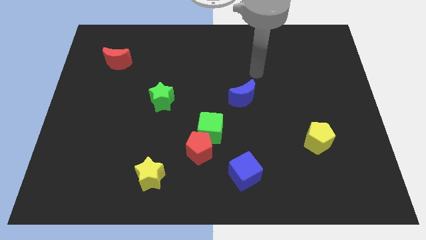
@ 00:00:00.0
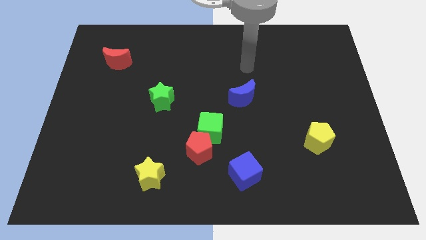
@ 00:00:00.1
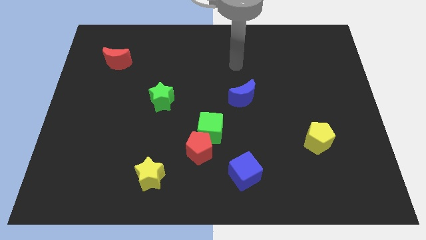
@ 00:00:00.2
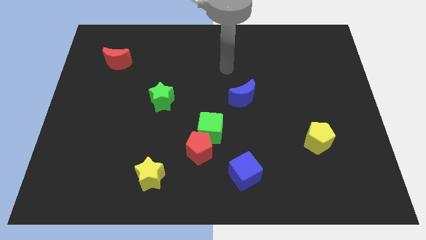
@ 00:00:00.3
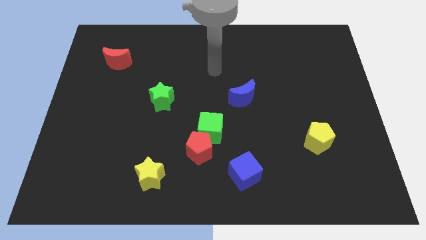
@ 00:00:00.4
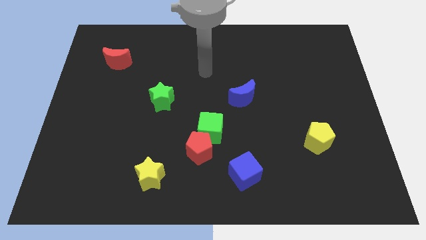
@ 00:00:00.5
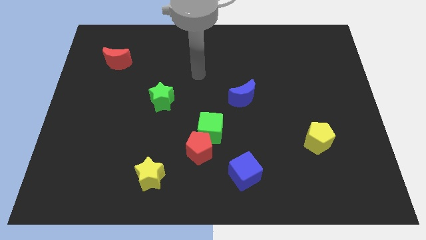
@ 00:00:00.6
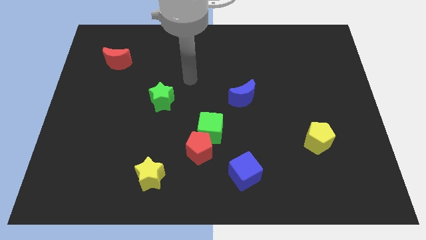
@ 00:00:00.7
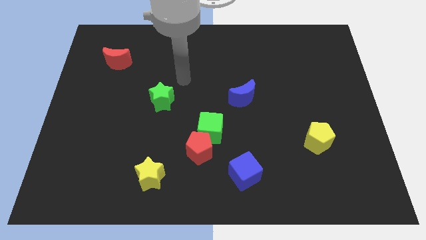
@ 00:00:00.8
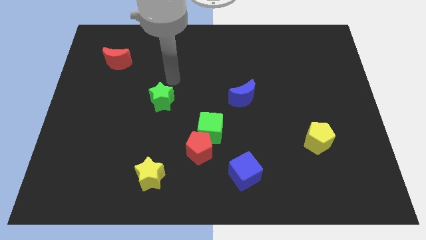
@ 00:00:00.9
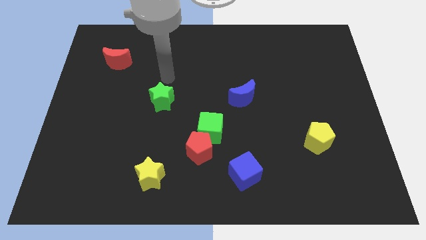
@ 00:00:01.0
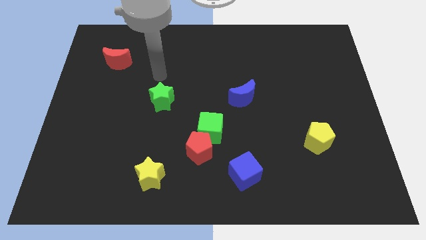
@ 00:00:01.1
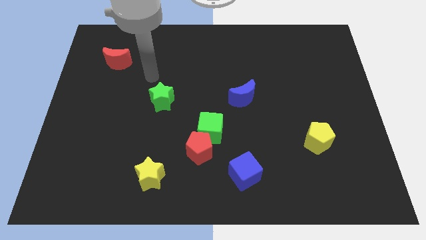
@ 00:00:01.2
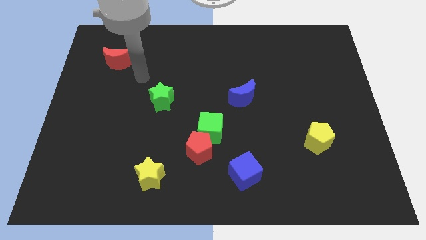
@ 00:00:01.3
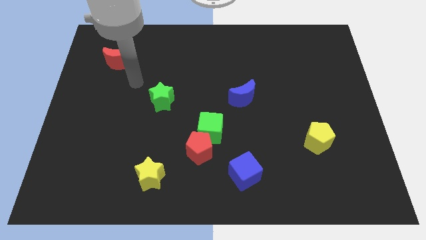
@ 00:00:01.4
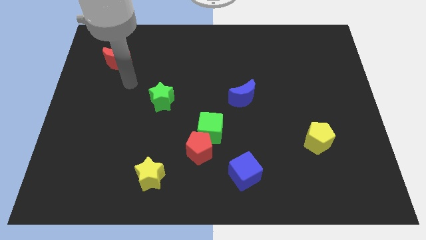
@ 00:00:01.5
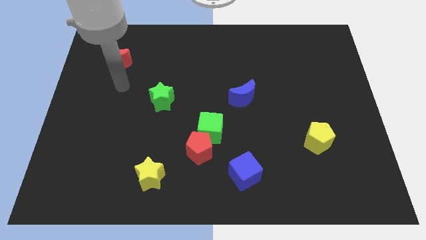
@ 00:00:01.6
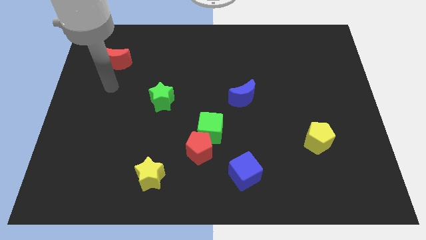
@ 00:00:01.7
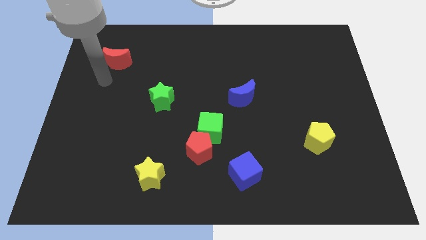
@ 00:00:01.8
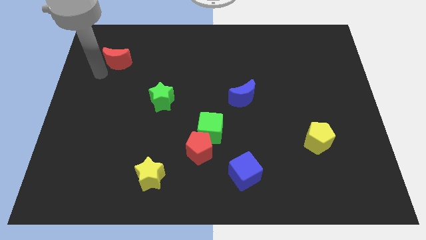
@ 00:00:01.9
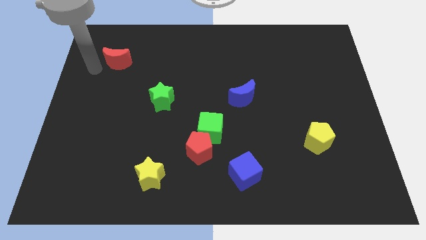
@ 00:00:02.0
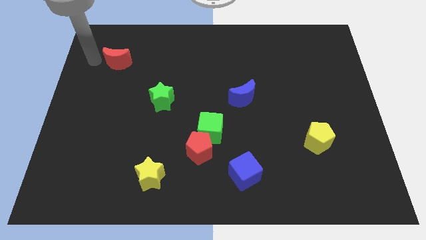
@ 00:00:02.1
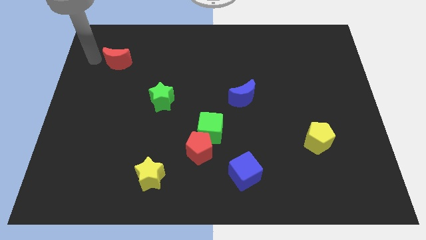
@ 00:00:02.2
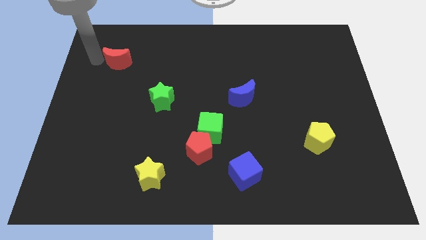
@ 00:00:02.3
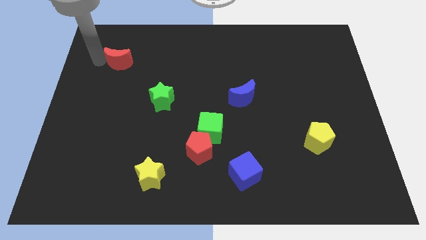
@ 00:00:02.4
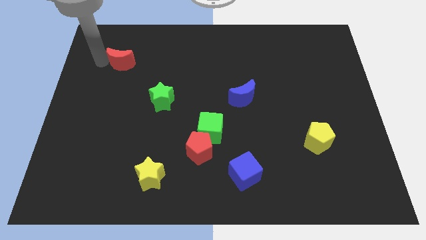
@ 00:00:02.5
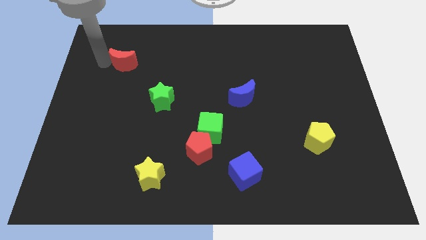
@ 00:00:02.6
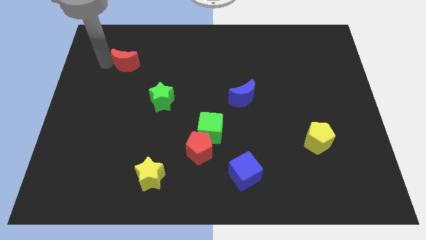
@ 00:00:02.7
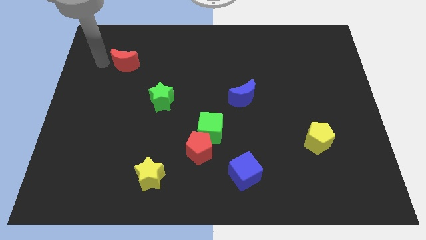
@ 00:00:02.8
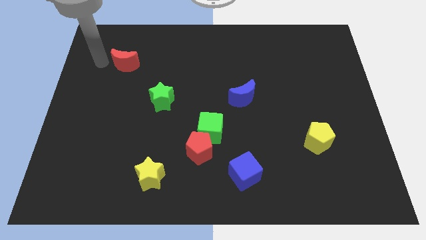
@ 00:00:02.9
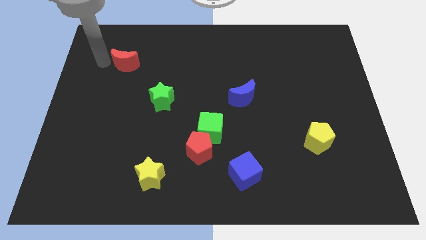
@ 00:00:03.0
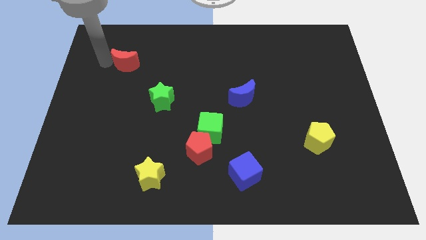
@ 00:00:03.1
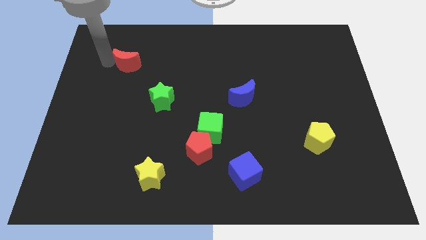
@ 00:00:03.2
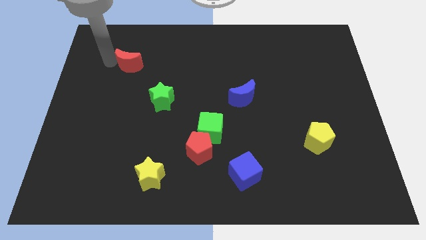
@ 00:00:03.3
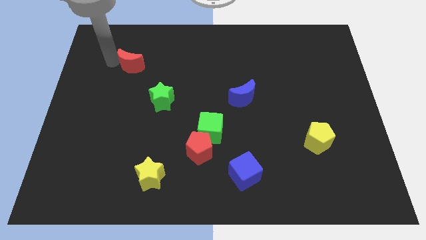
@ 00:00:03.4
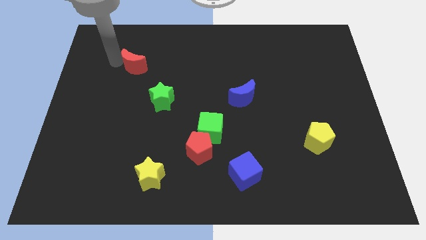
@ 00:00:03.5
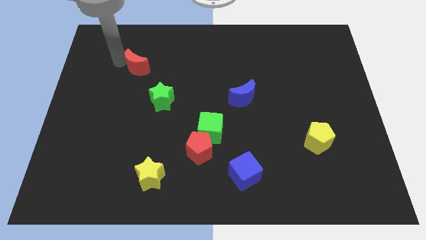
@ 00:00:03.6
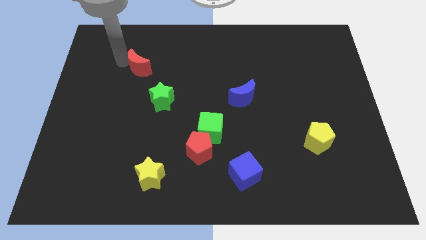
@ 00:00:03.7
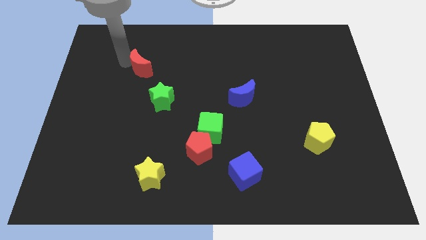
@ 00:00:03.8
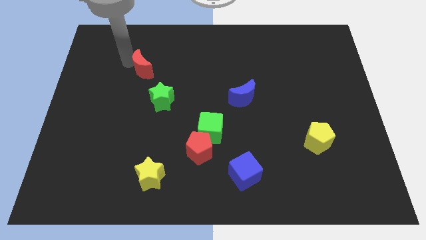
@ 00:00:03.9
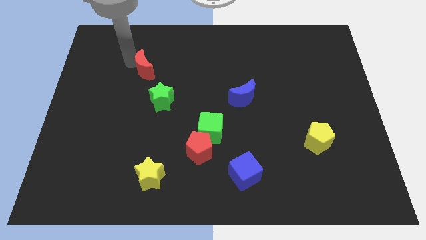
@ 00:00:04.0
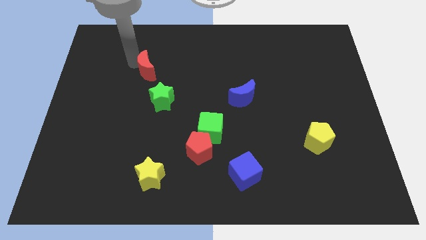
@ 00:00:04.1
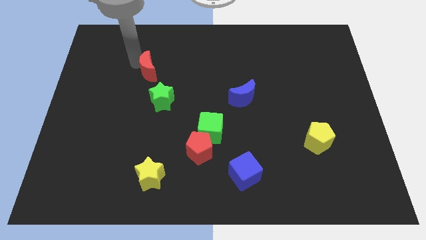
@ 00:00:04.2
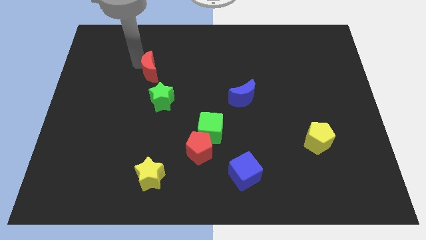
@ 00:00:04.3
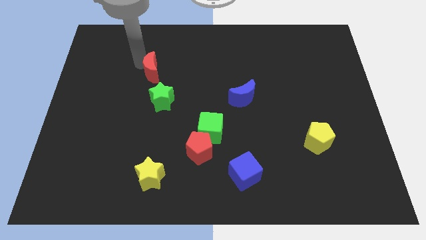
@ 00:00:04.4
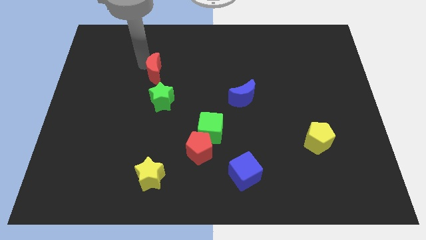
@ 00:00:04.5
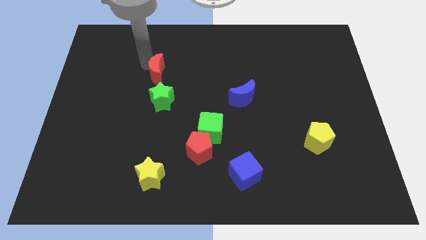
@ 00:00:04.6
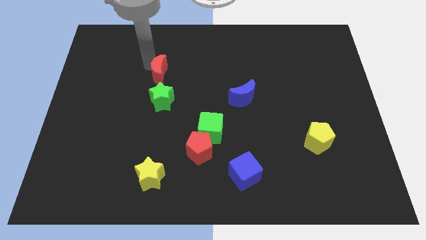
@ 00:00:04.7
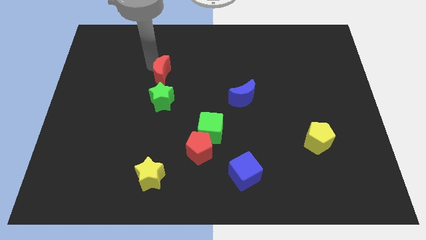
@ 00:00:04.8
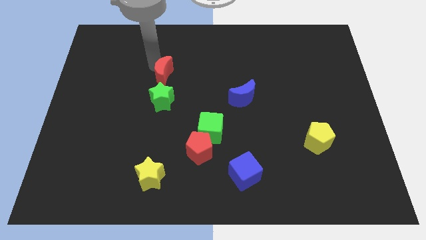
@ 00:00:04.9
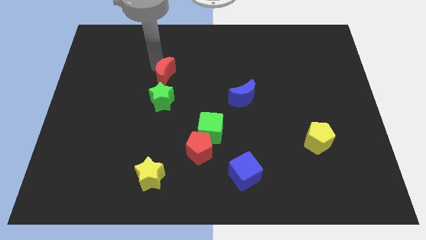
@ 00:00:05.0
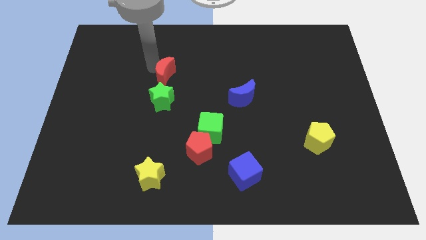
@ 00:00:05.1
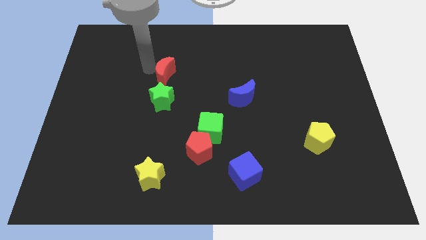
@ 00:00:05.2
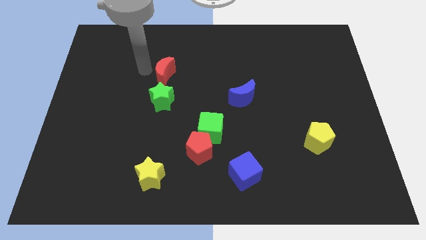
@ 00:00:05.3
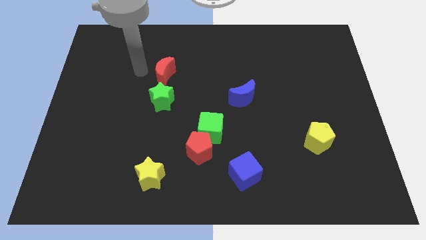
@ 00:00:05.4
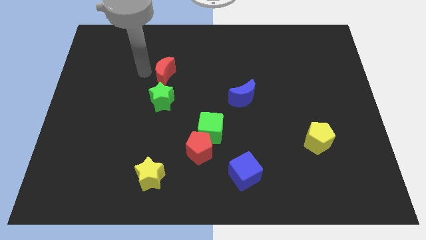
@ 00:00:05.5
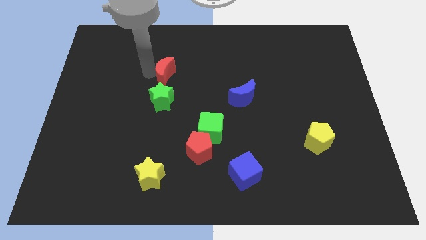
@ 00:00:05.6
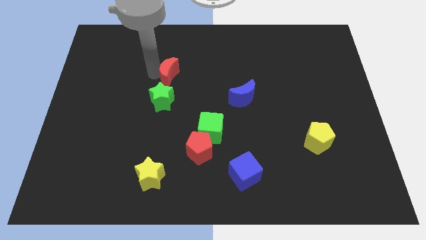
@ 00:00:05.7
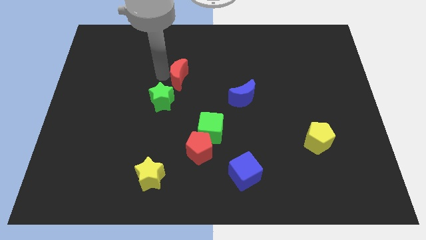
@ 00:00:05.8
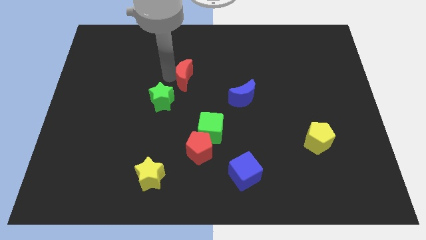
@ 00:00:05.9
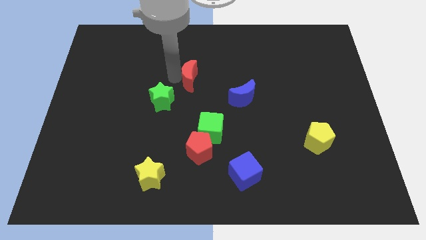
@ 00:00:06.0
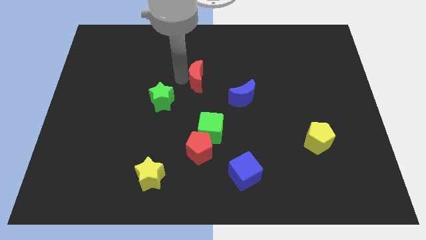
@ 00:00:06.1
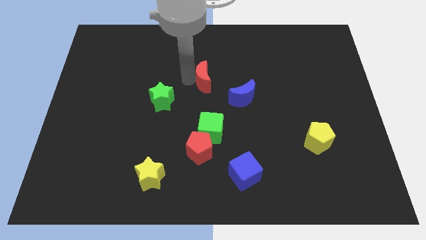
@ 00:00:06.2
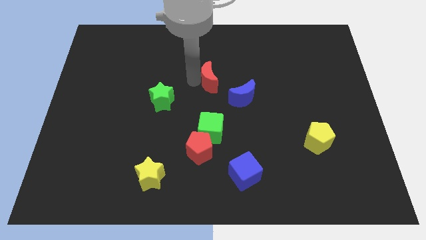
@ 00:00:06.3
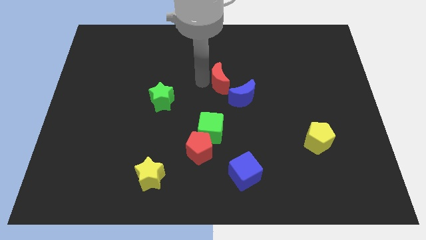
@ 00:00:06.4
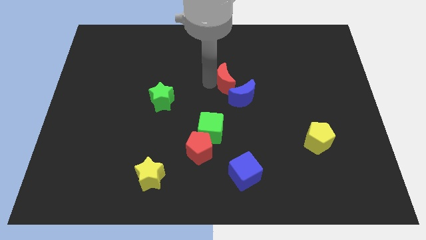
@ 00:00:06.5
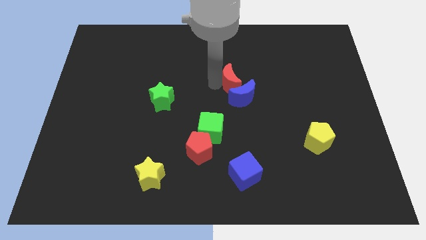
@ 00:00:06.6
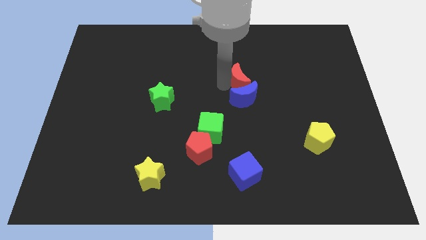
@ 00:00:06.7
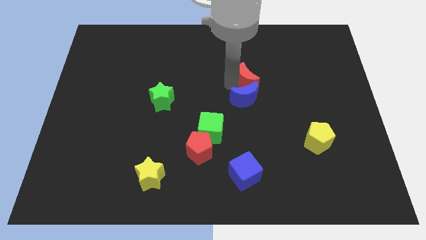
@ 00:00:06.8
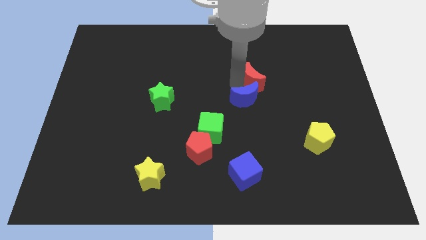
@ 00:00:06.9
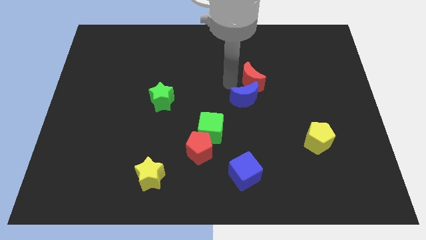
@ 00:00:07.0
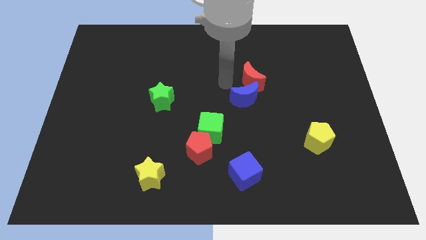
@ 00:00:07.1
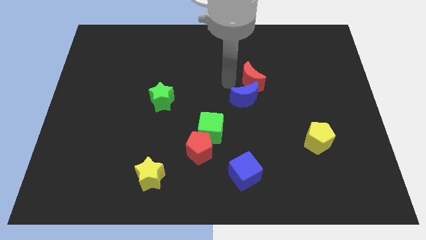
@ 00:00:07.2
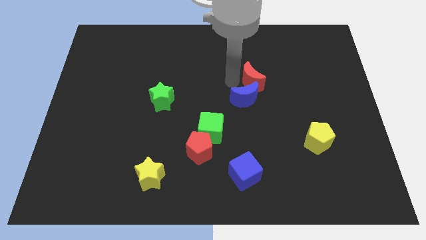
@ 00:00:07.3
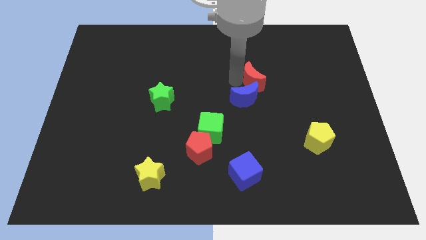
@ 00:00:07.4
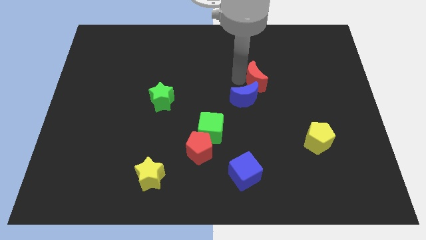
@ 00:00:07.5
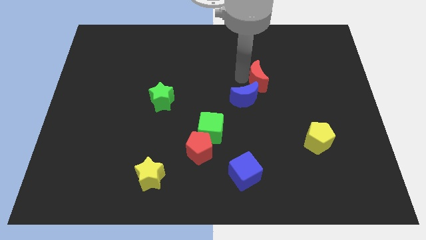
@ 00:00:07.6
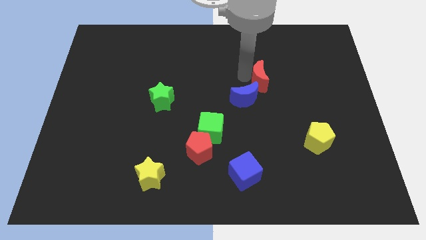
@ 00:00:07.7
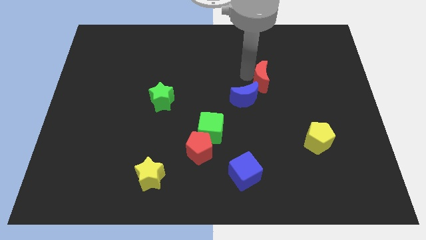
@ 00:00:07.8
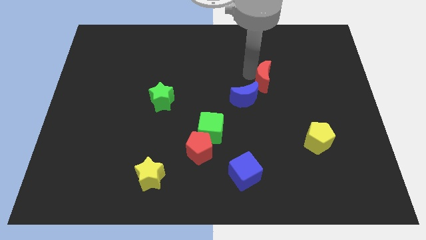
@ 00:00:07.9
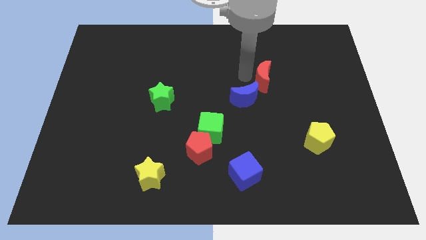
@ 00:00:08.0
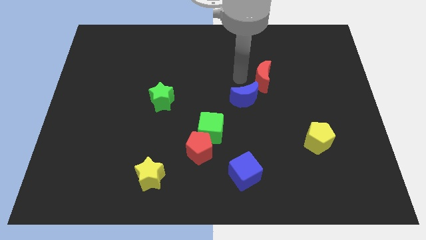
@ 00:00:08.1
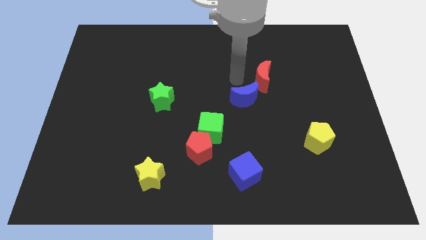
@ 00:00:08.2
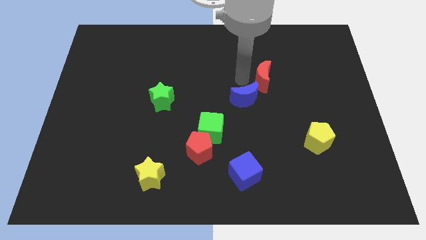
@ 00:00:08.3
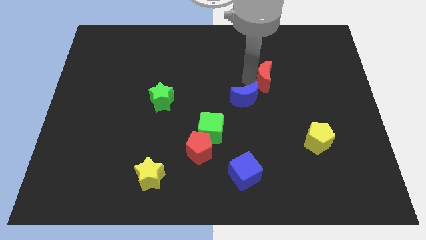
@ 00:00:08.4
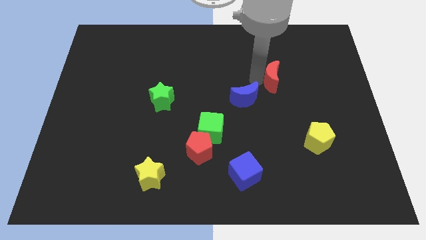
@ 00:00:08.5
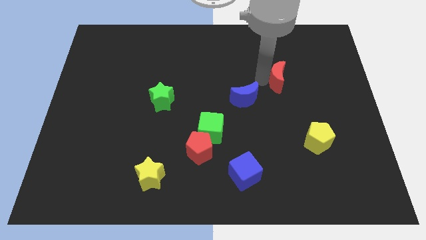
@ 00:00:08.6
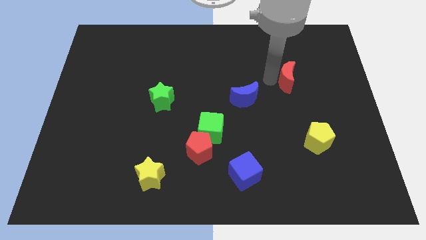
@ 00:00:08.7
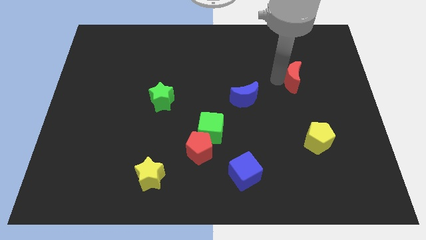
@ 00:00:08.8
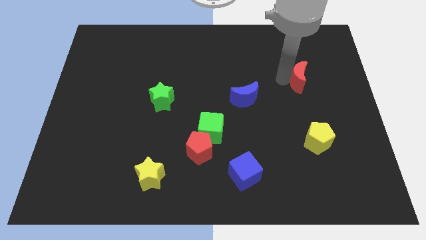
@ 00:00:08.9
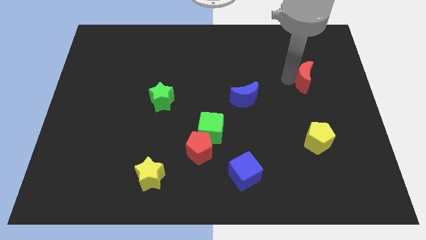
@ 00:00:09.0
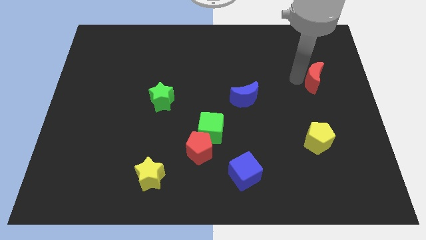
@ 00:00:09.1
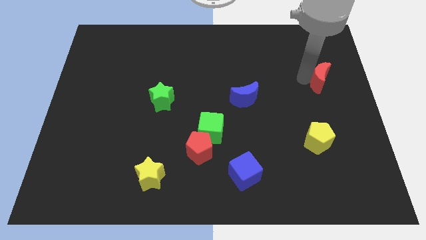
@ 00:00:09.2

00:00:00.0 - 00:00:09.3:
put the red moon to the center right
